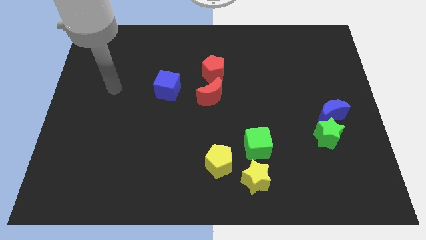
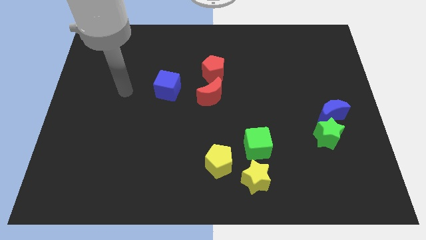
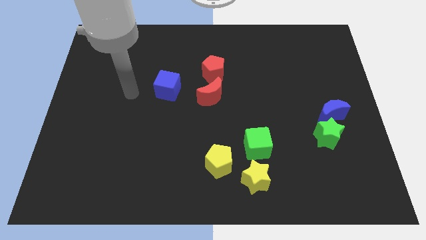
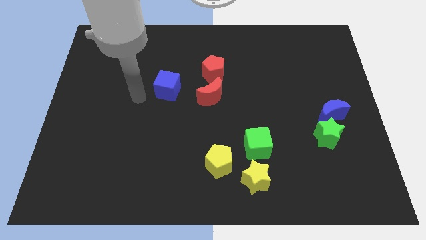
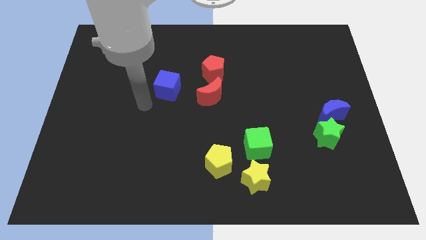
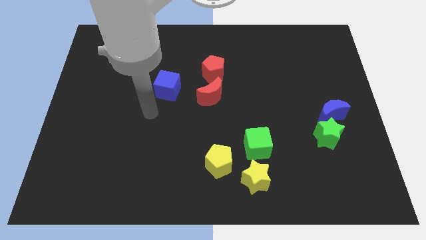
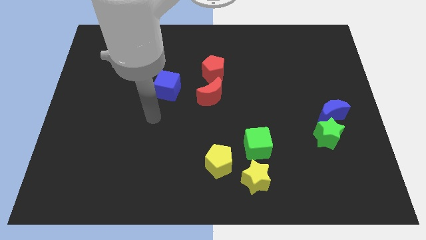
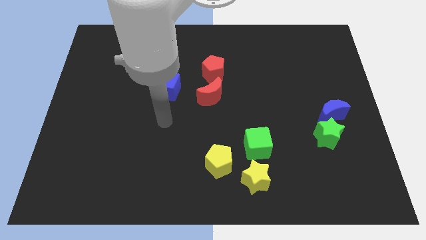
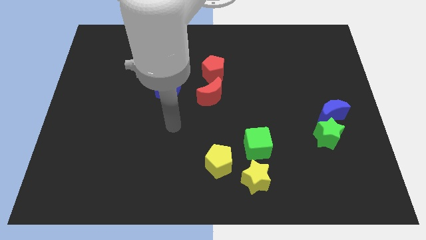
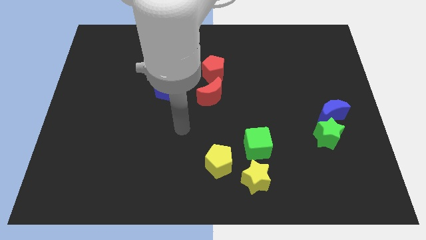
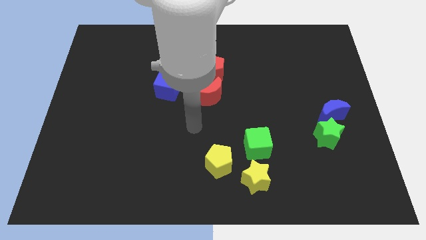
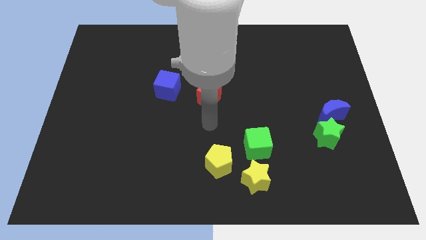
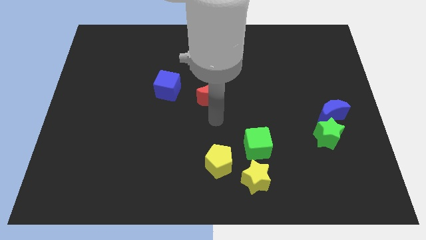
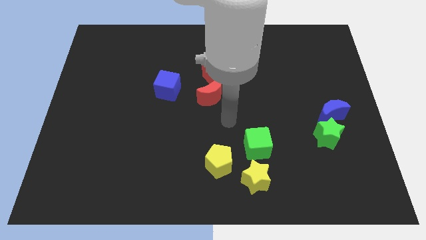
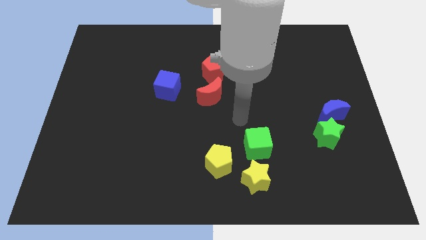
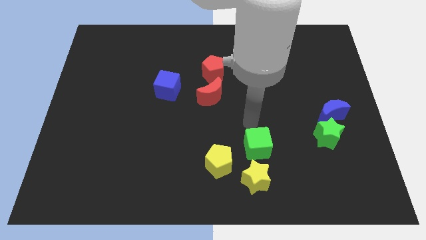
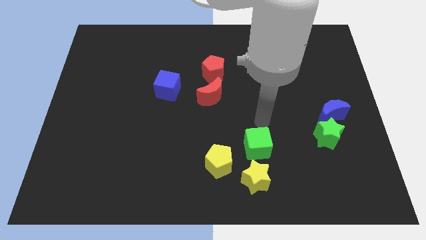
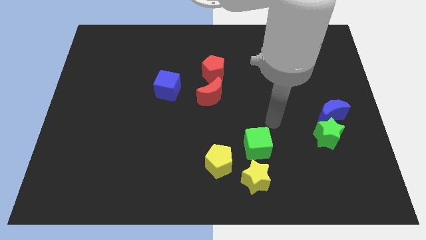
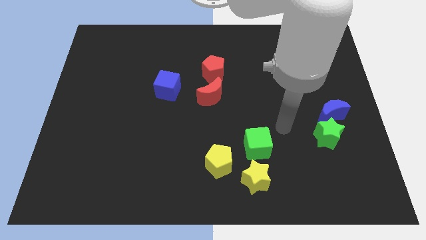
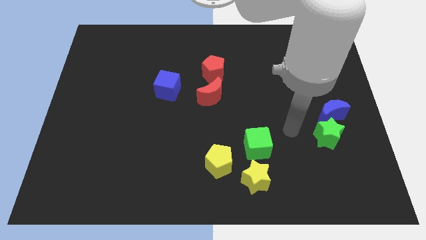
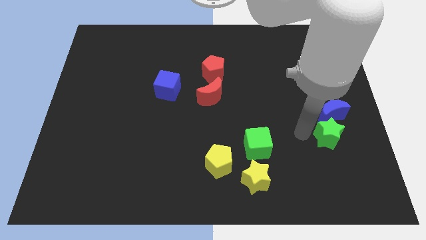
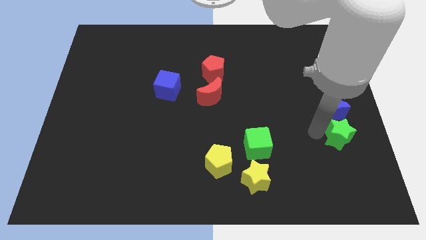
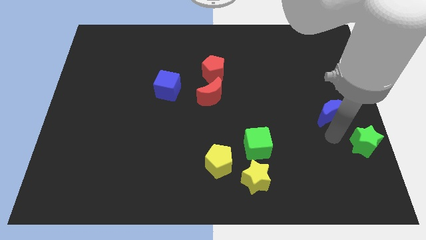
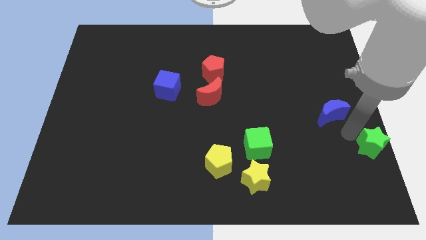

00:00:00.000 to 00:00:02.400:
separate the blue moon from the green star

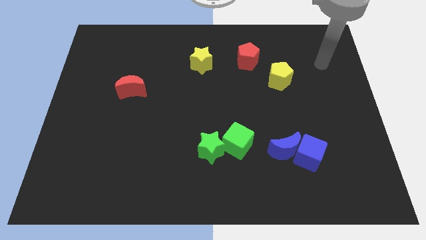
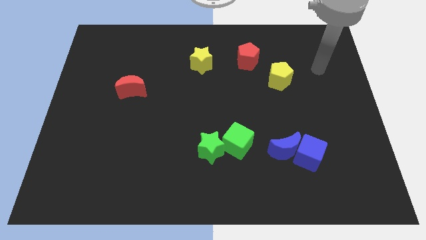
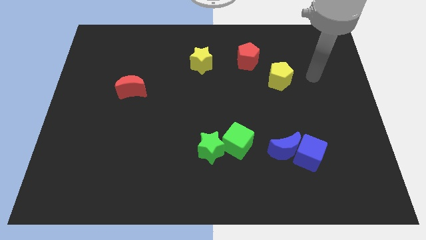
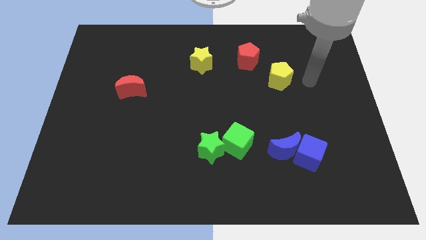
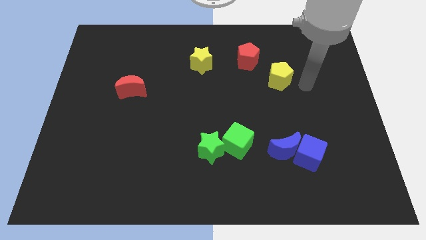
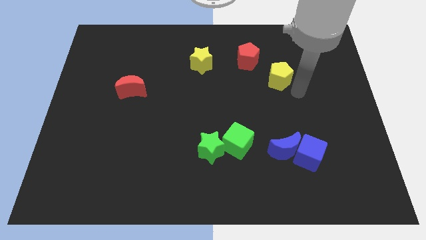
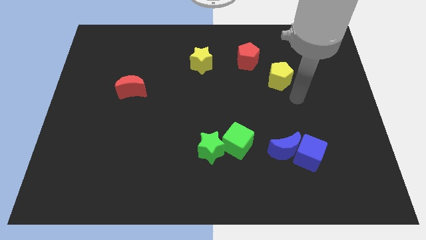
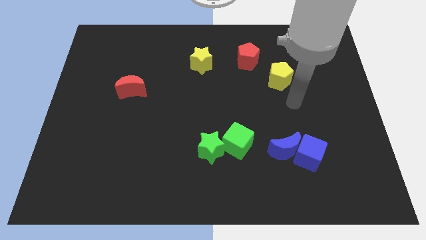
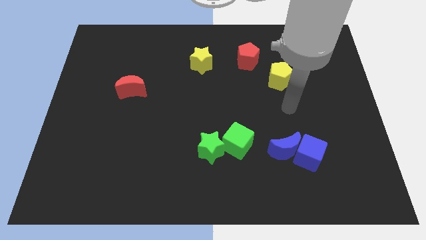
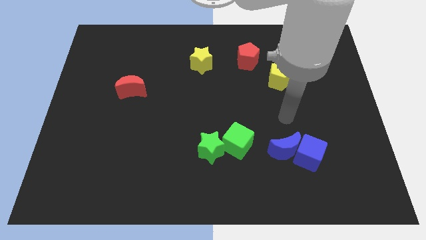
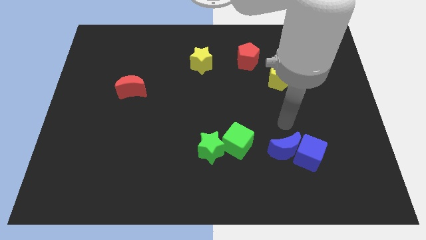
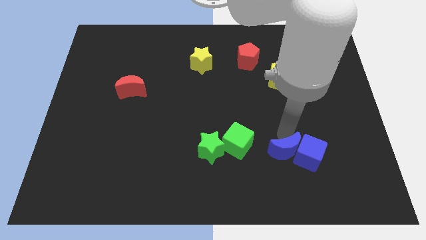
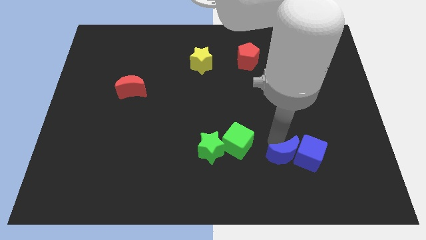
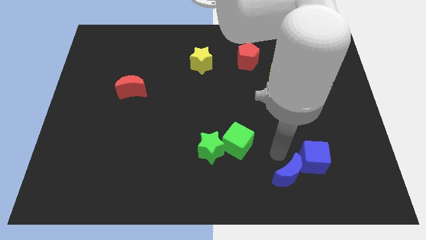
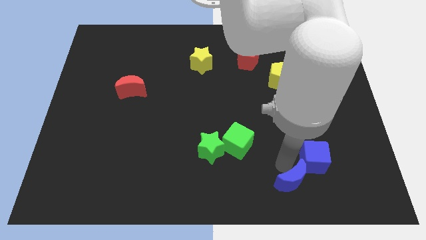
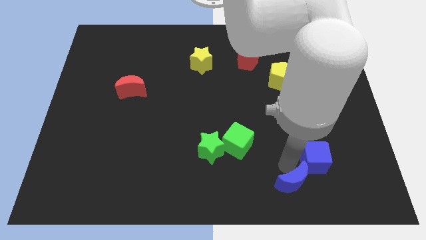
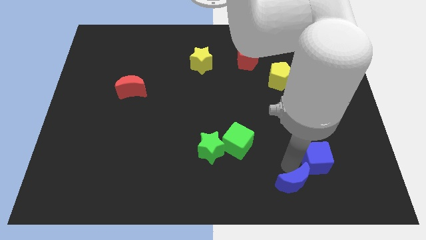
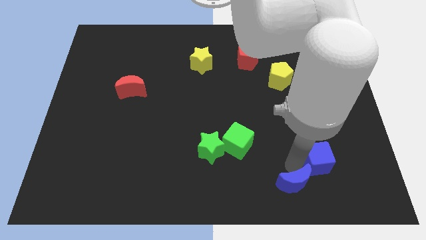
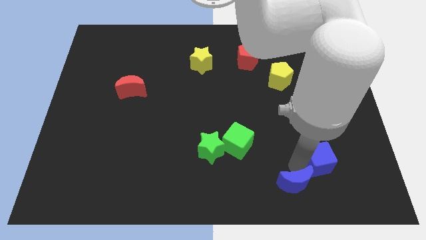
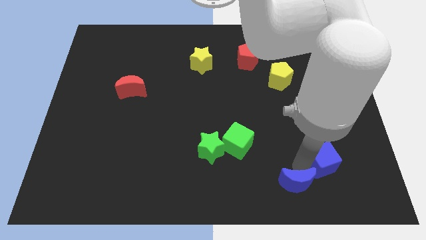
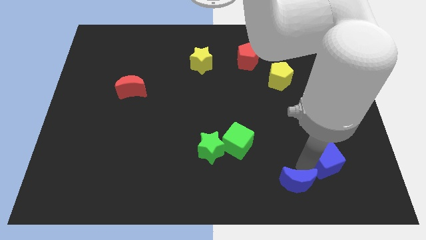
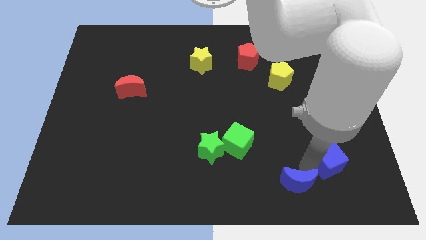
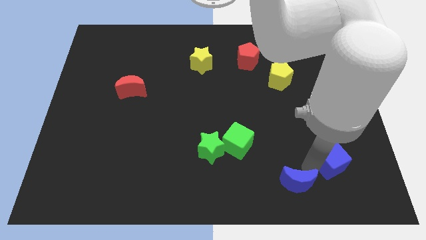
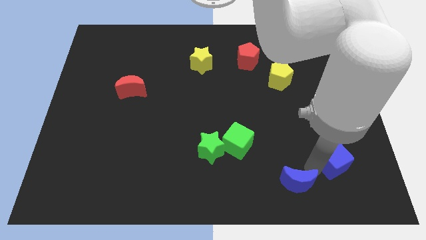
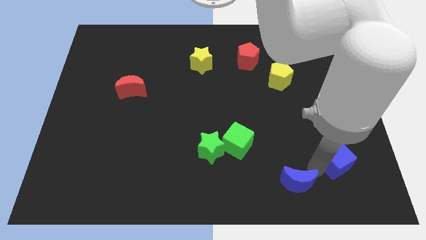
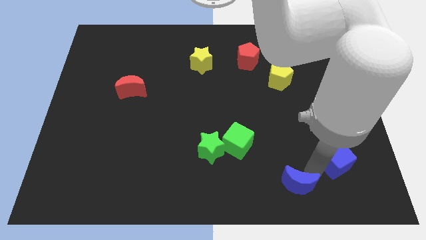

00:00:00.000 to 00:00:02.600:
separate the blue cube from the blue moon

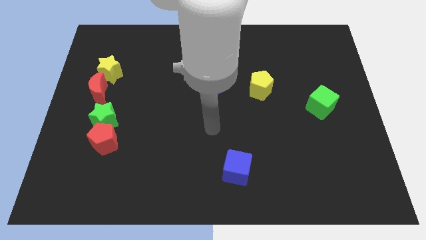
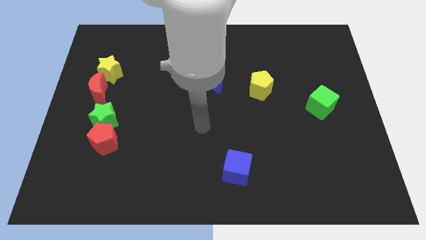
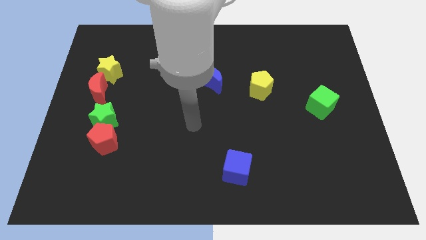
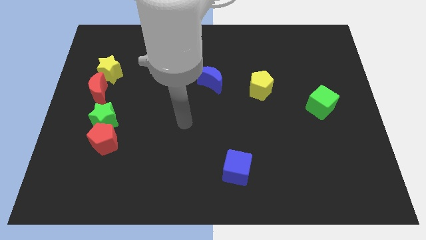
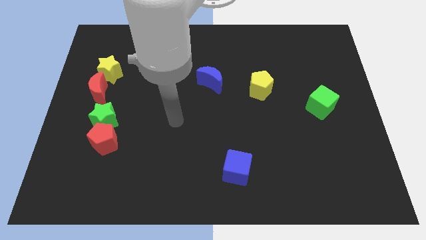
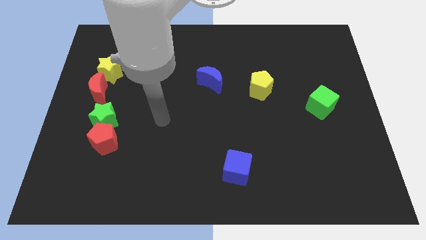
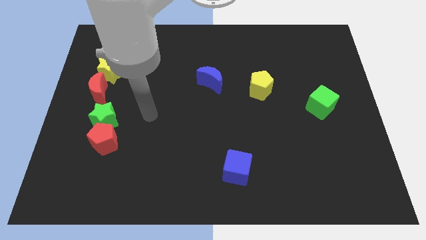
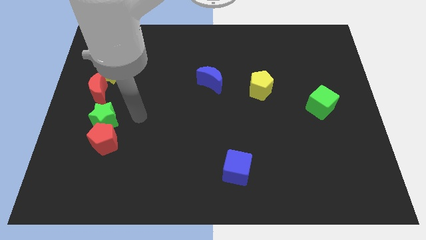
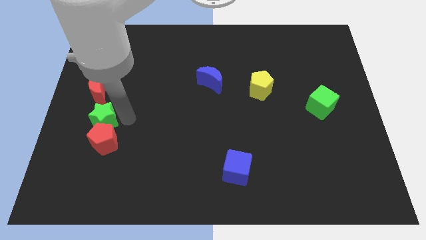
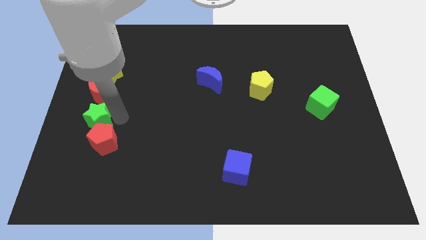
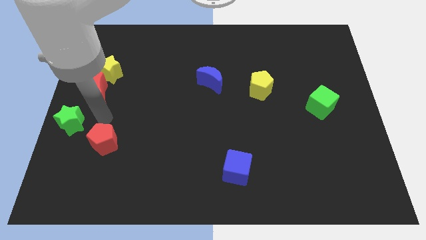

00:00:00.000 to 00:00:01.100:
move the red pentagon away from the green star

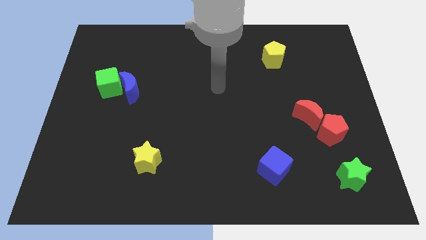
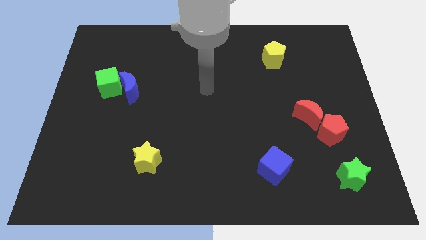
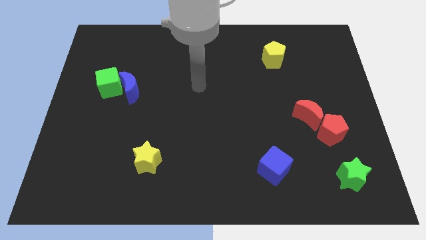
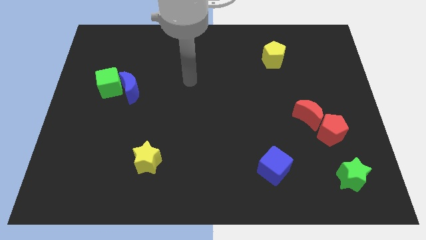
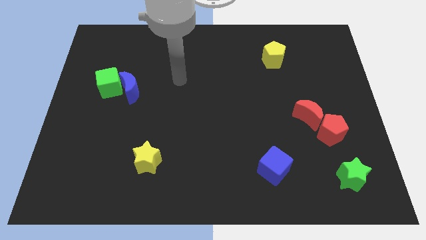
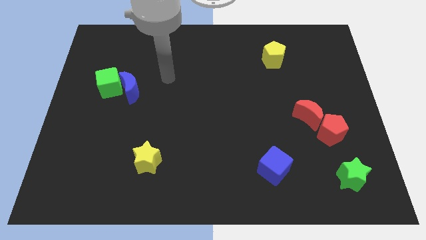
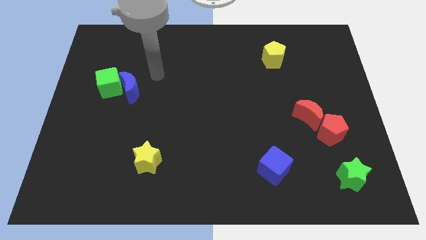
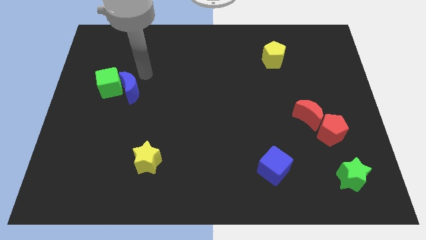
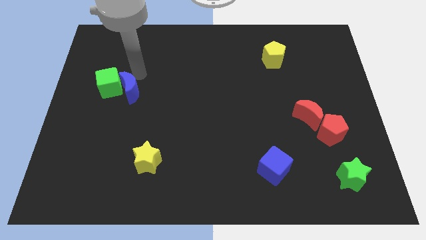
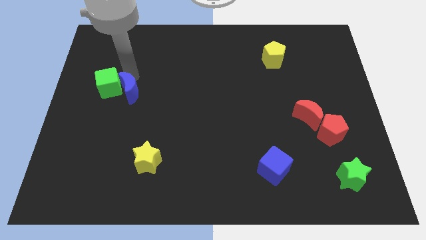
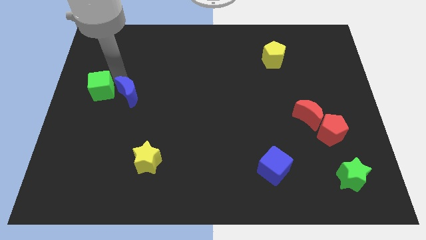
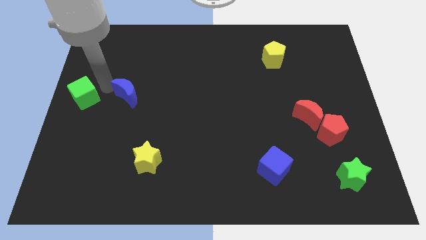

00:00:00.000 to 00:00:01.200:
move the blue moon away from the green cube

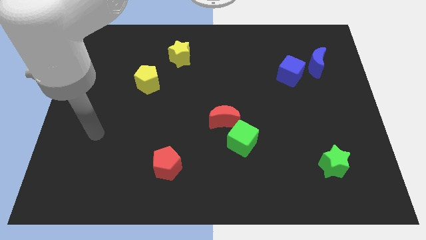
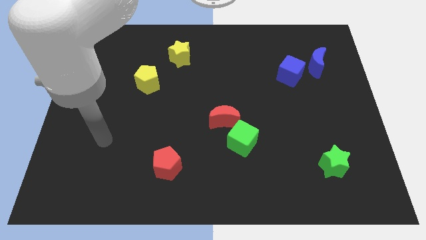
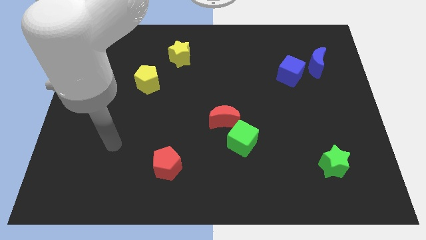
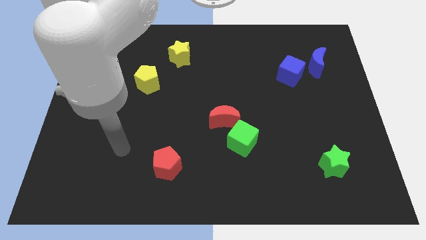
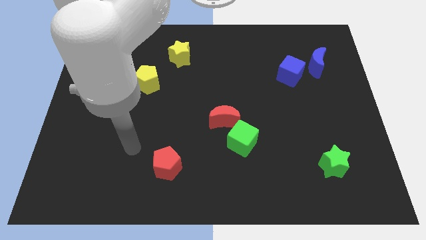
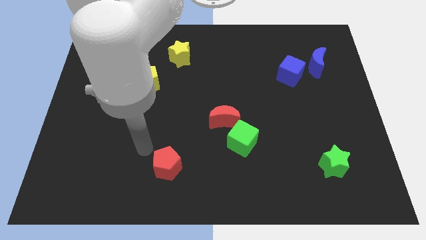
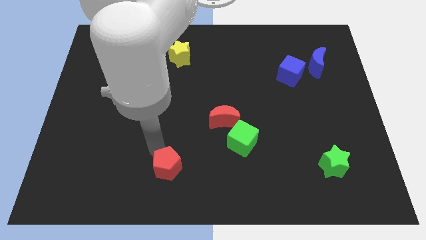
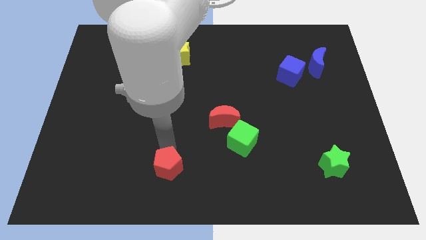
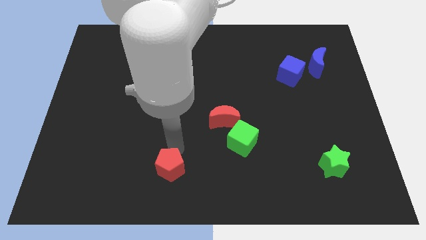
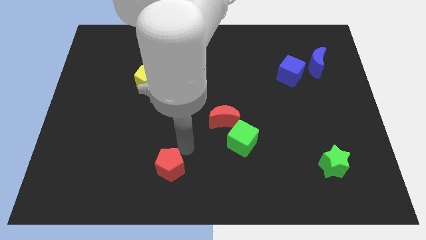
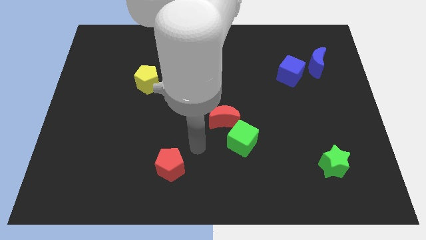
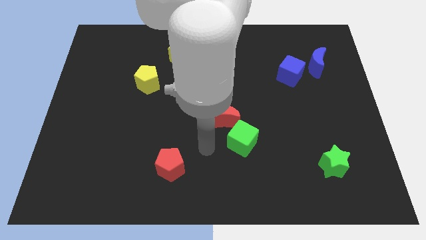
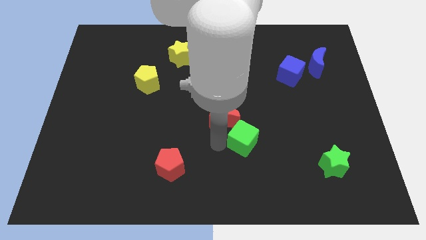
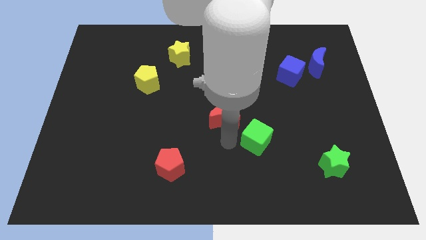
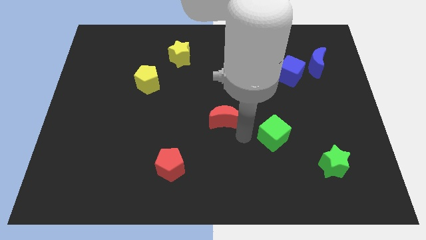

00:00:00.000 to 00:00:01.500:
separate the red moon from the green cube

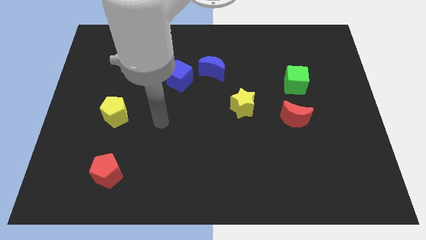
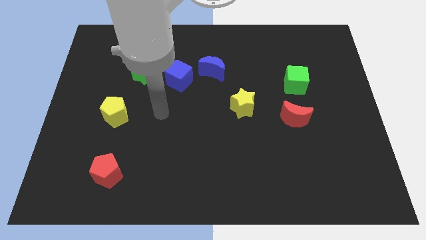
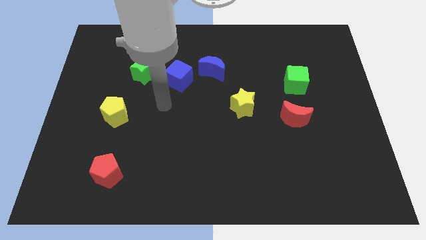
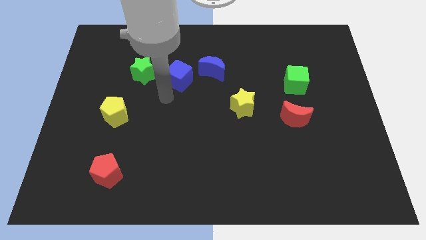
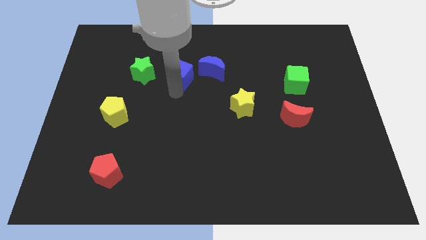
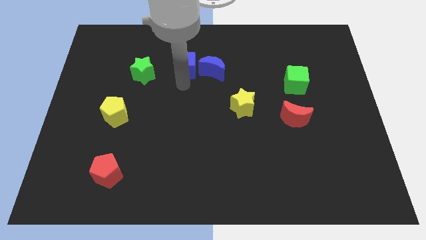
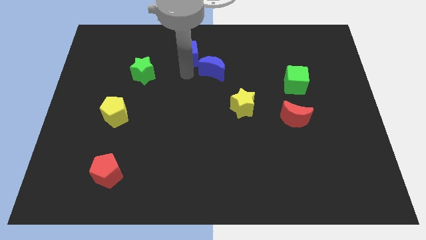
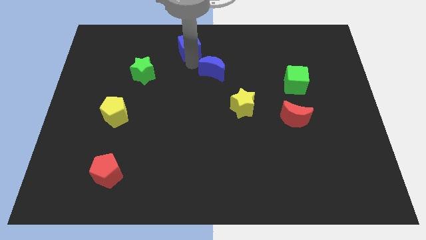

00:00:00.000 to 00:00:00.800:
pull the blue moon apart from the blue cube
